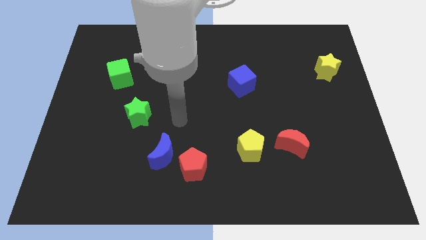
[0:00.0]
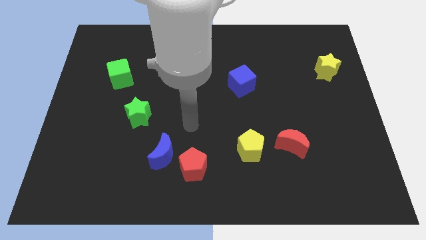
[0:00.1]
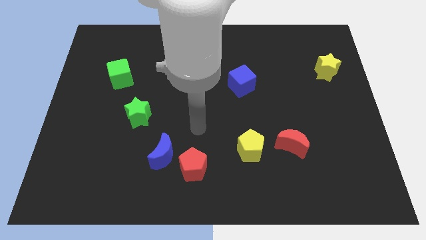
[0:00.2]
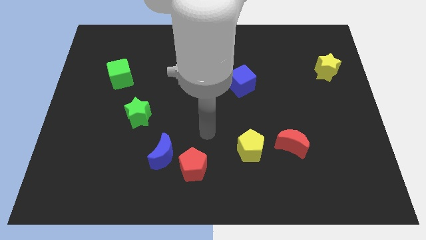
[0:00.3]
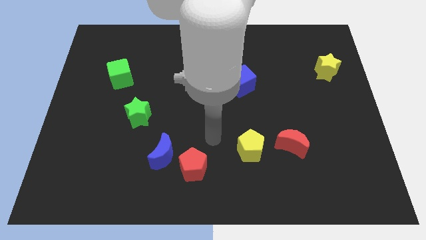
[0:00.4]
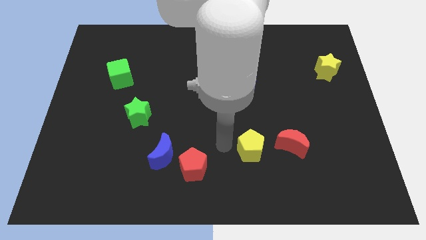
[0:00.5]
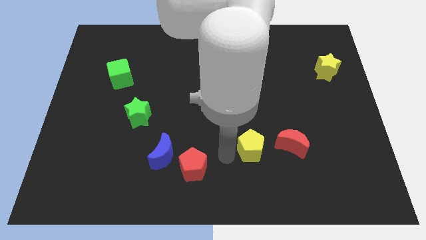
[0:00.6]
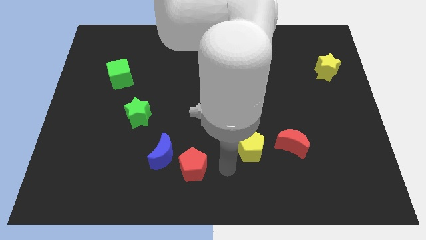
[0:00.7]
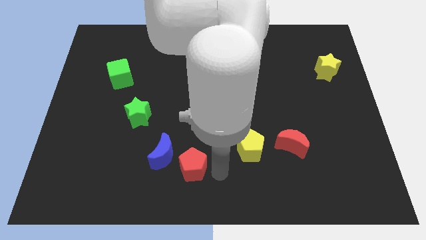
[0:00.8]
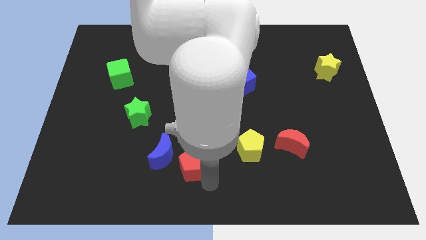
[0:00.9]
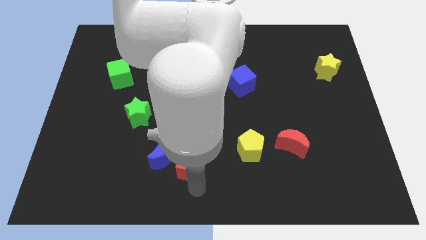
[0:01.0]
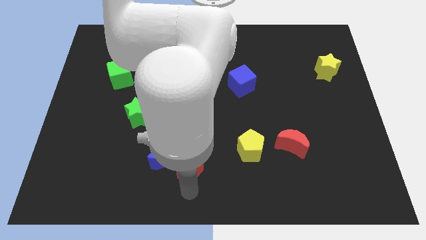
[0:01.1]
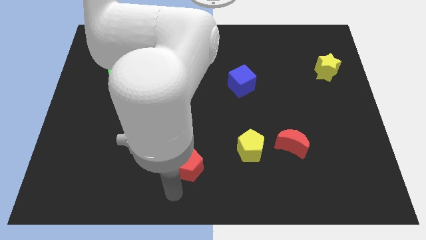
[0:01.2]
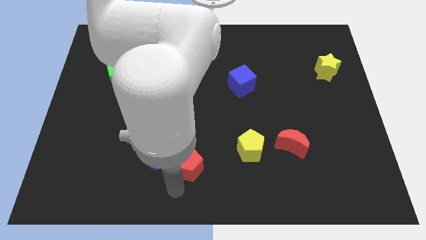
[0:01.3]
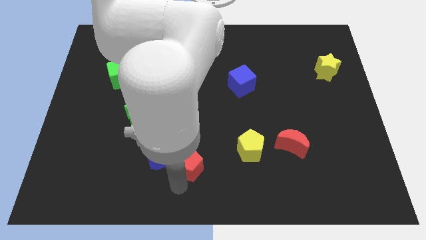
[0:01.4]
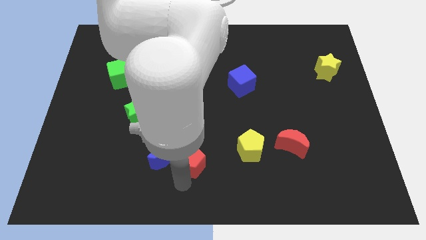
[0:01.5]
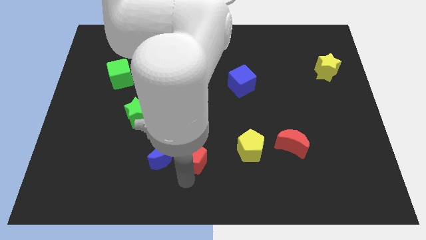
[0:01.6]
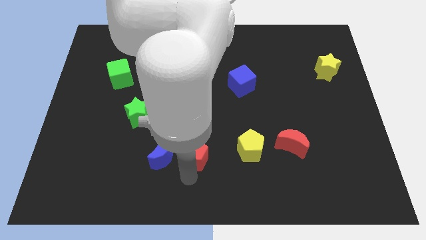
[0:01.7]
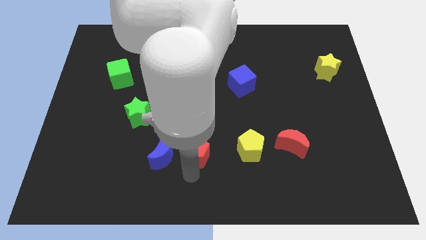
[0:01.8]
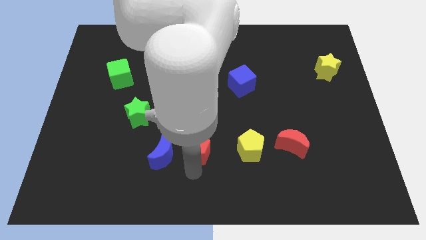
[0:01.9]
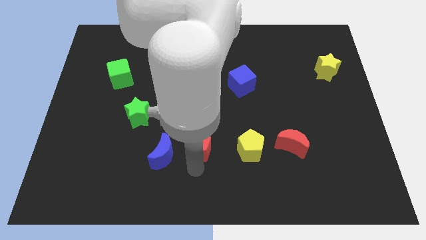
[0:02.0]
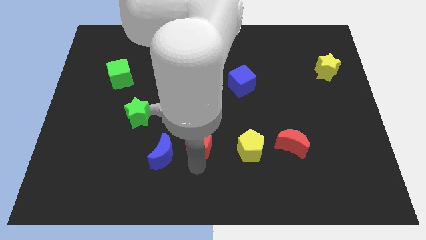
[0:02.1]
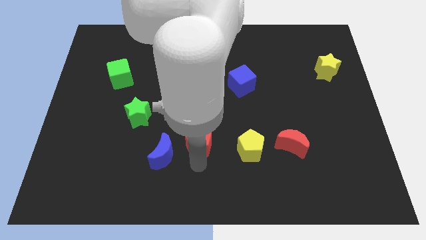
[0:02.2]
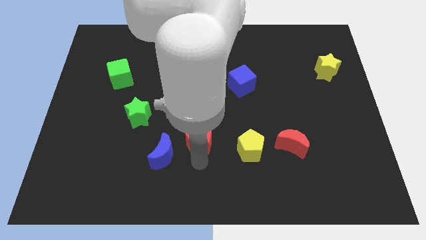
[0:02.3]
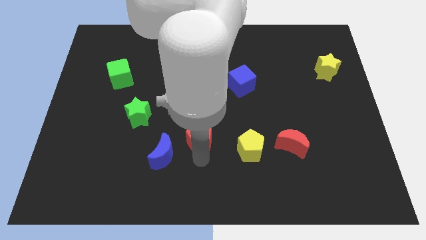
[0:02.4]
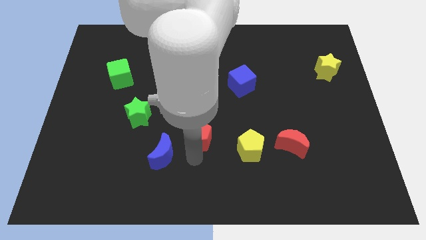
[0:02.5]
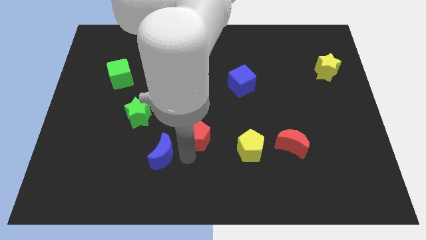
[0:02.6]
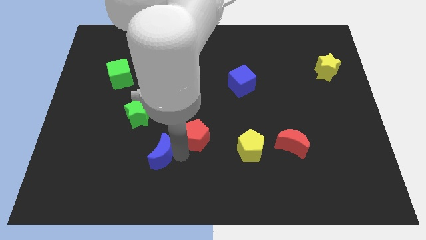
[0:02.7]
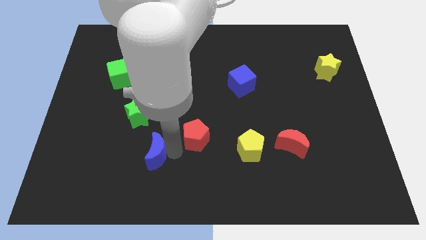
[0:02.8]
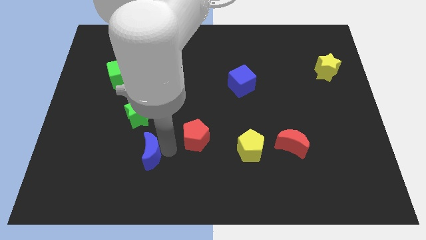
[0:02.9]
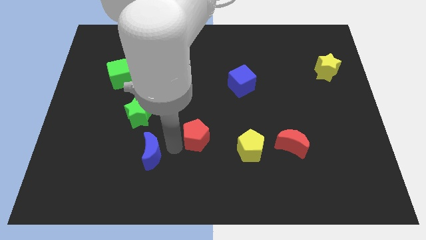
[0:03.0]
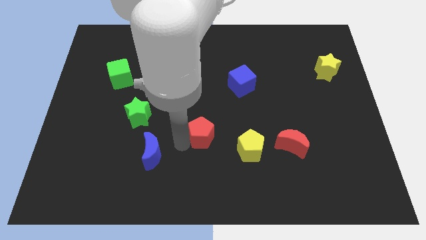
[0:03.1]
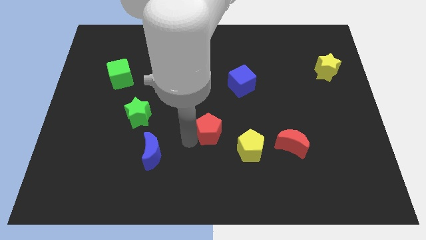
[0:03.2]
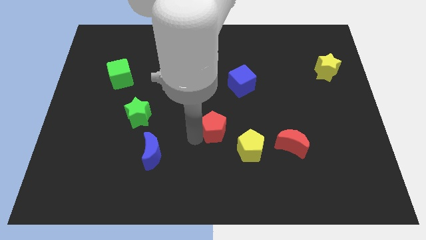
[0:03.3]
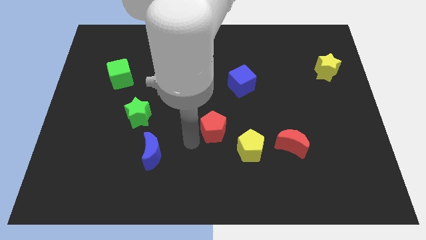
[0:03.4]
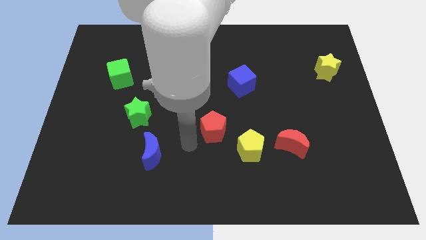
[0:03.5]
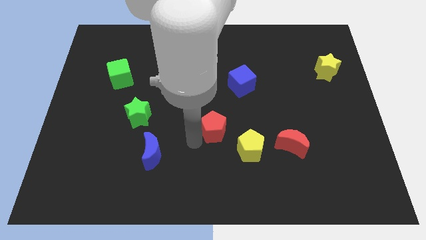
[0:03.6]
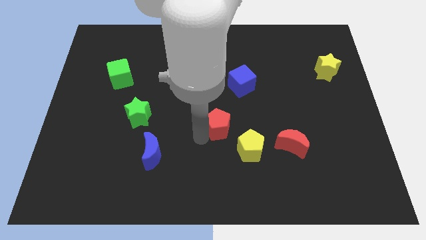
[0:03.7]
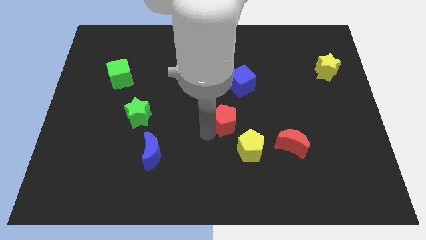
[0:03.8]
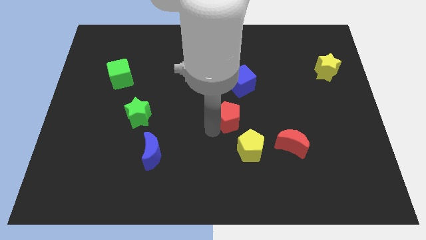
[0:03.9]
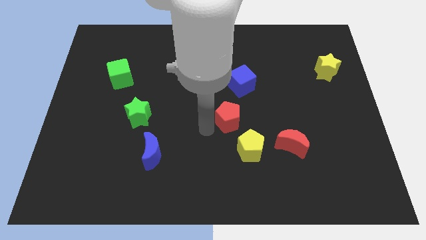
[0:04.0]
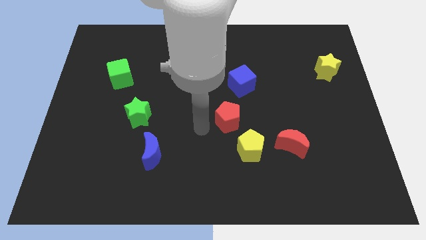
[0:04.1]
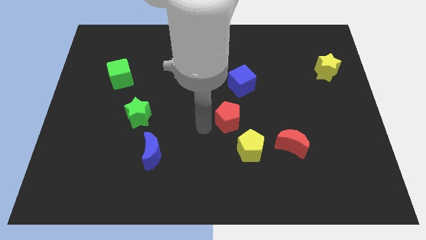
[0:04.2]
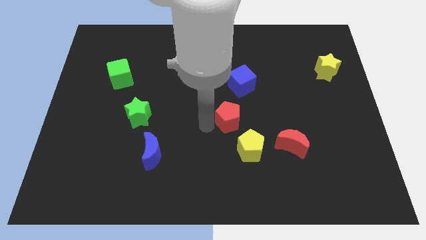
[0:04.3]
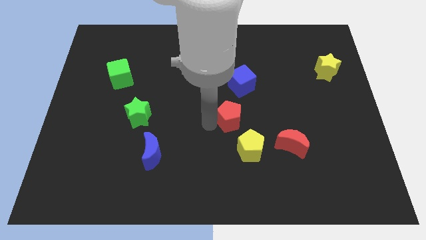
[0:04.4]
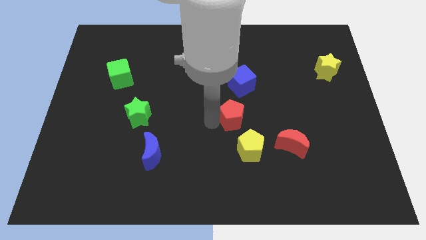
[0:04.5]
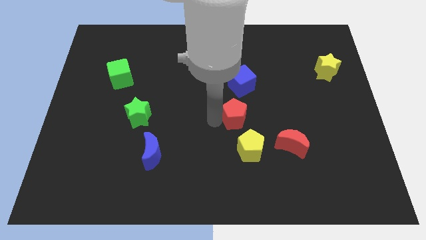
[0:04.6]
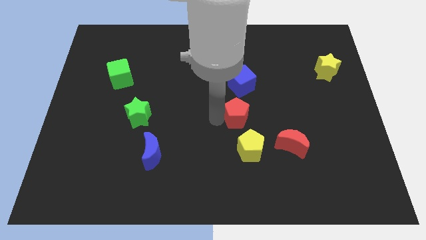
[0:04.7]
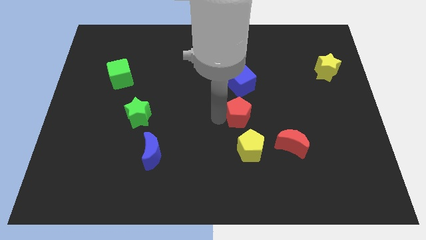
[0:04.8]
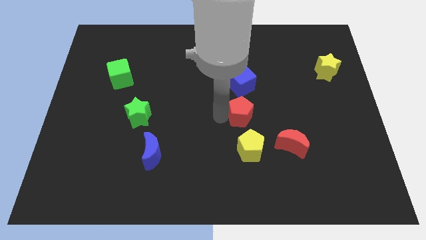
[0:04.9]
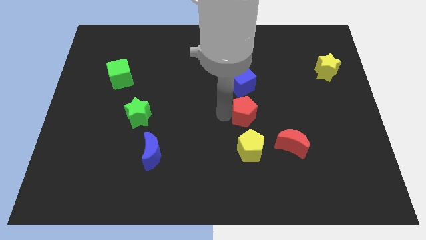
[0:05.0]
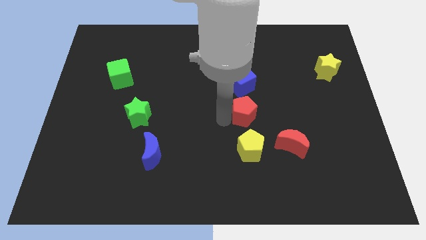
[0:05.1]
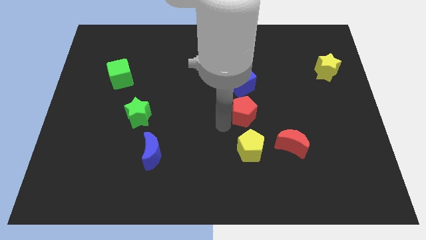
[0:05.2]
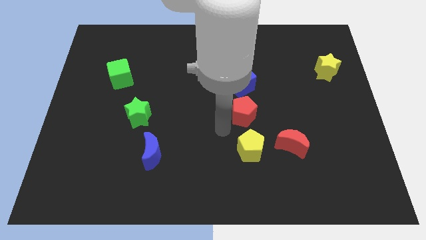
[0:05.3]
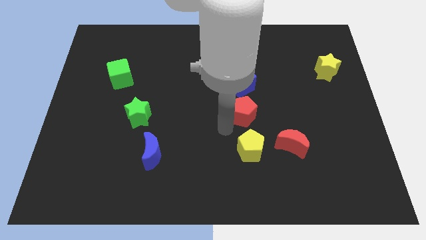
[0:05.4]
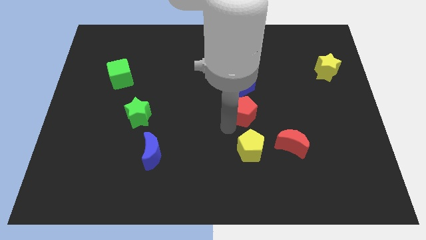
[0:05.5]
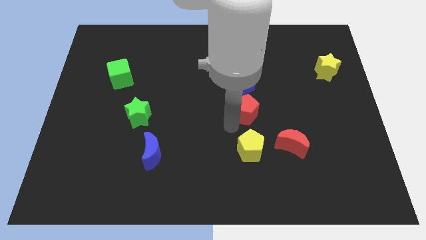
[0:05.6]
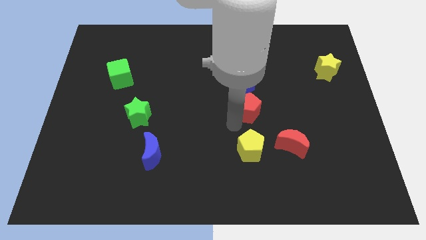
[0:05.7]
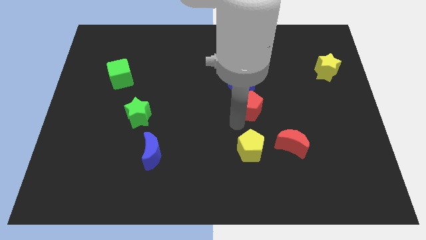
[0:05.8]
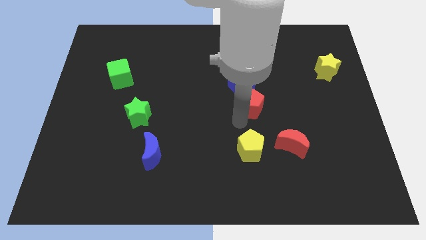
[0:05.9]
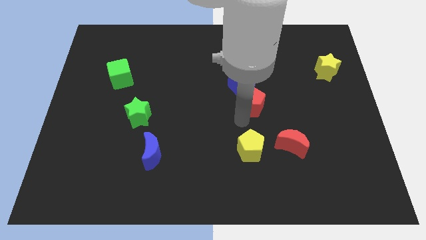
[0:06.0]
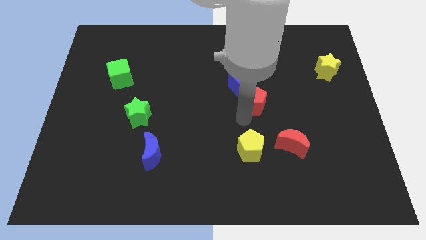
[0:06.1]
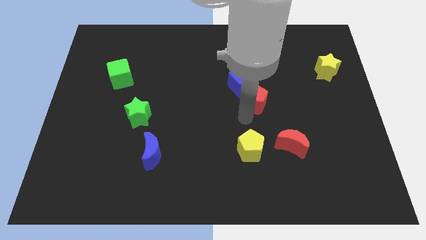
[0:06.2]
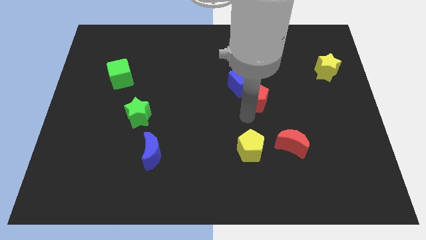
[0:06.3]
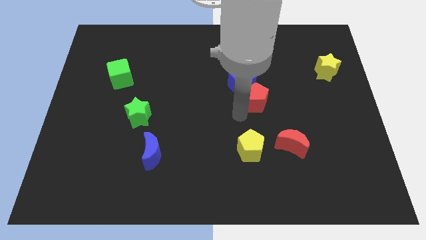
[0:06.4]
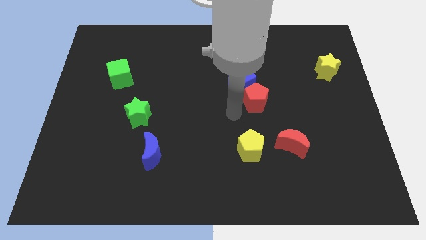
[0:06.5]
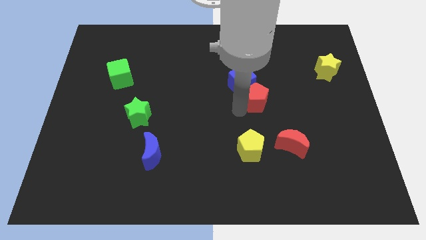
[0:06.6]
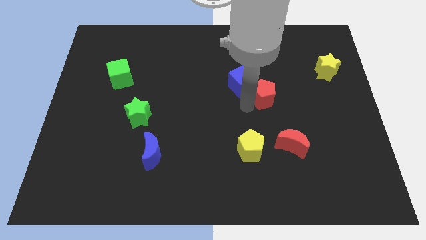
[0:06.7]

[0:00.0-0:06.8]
push the red pentagon just right of the blue cube
